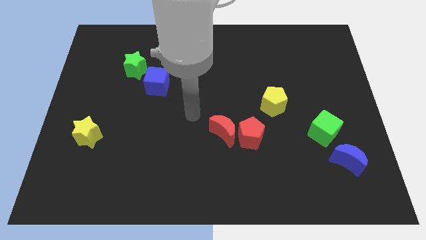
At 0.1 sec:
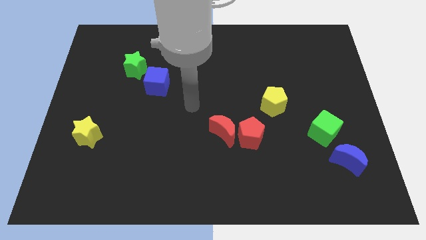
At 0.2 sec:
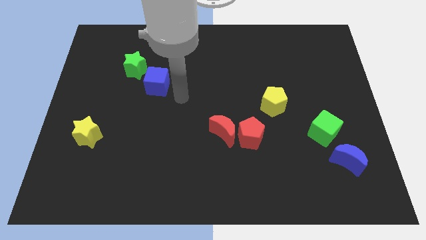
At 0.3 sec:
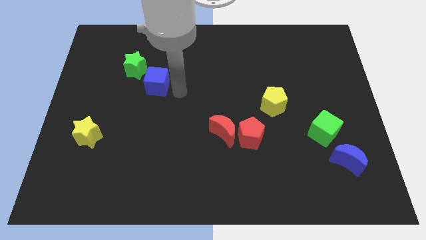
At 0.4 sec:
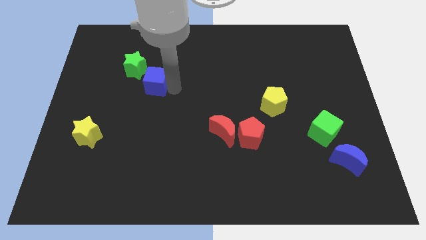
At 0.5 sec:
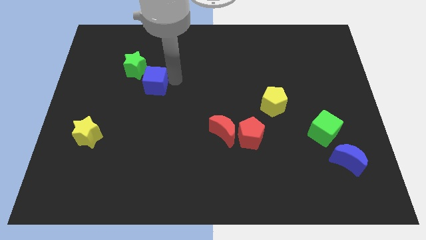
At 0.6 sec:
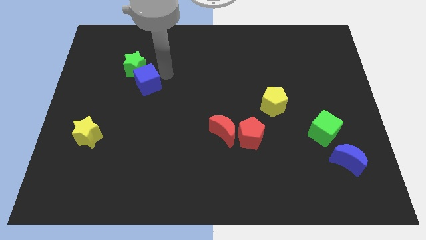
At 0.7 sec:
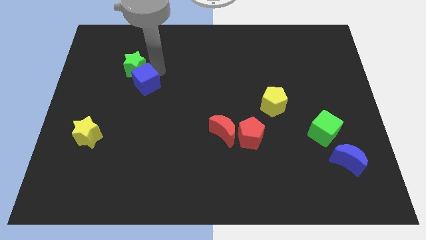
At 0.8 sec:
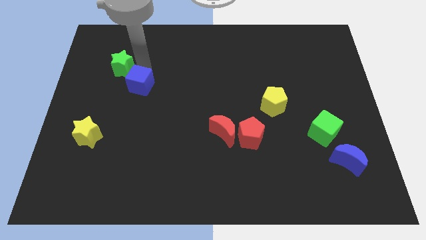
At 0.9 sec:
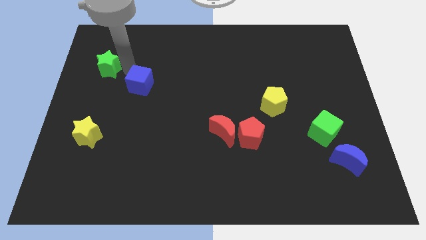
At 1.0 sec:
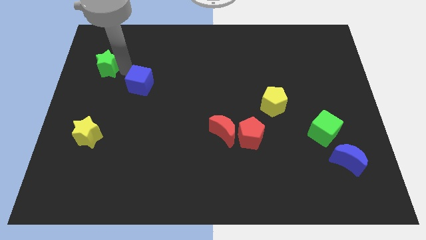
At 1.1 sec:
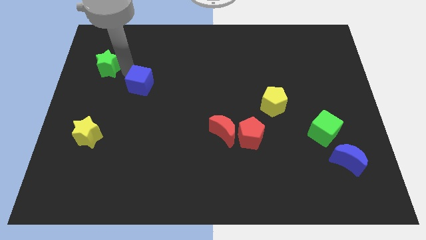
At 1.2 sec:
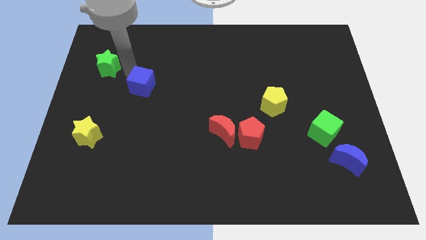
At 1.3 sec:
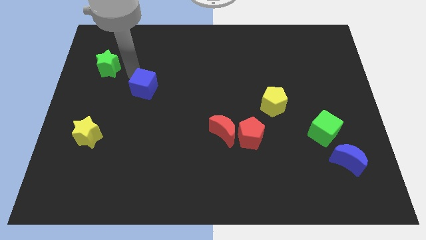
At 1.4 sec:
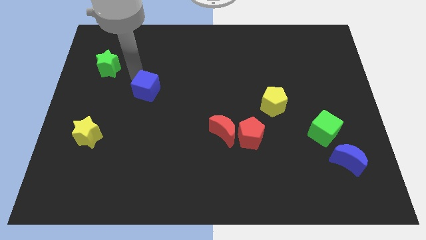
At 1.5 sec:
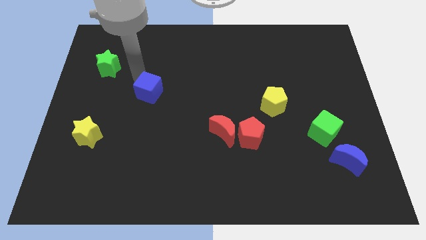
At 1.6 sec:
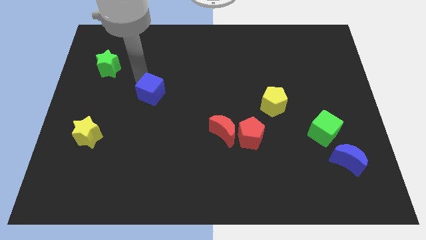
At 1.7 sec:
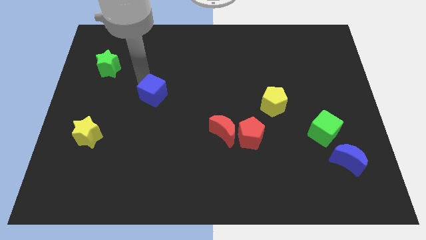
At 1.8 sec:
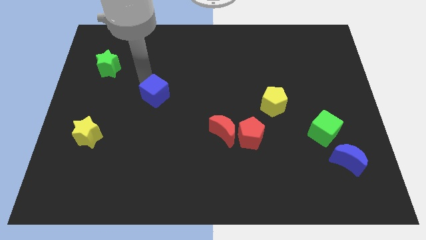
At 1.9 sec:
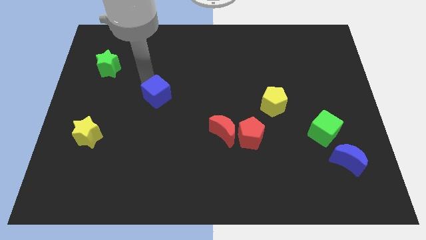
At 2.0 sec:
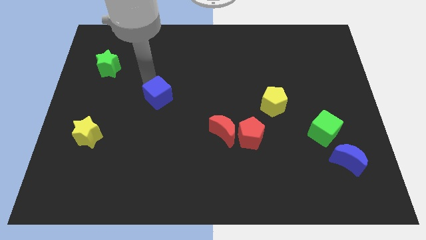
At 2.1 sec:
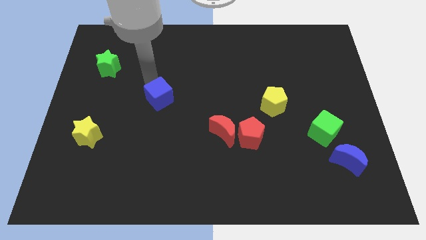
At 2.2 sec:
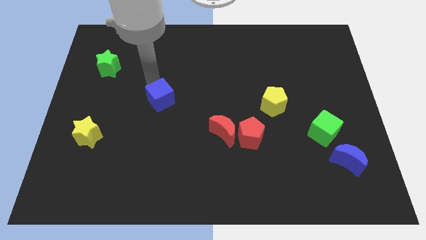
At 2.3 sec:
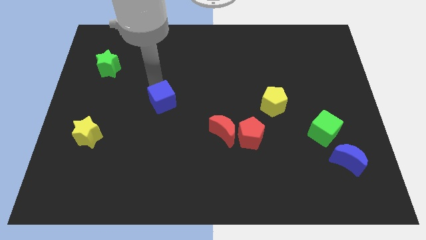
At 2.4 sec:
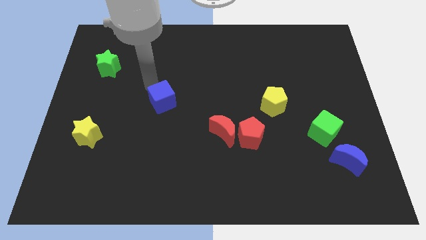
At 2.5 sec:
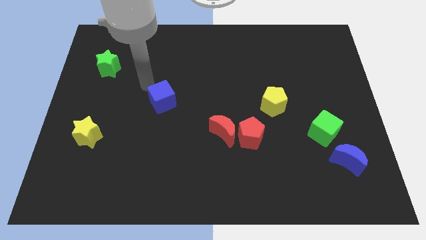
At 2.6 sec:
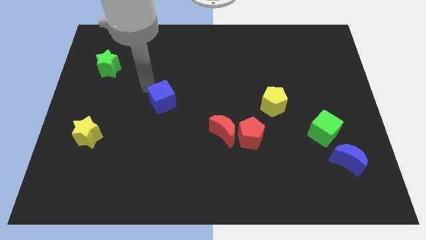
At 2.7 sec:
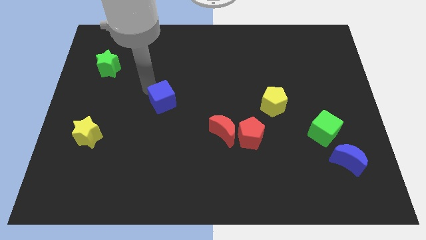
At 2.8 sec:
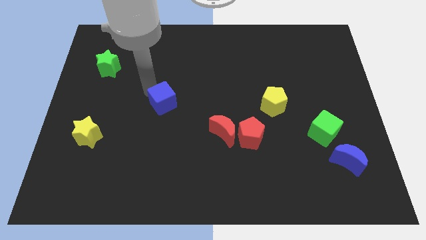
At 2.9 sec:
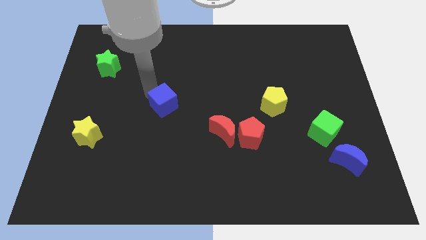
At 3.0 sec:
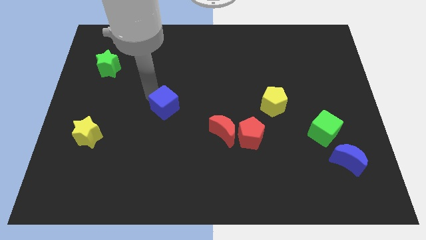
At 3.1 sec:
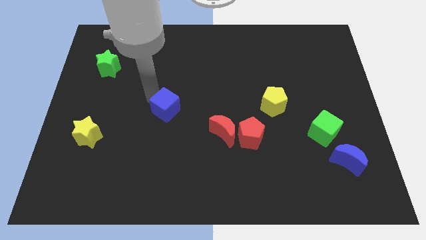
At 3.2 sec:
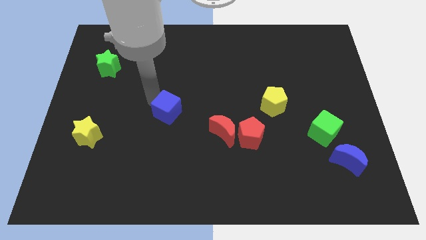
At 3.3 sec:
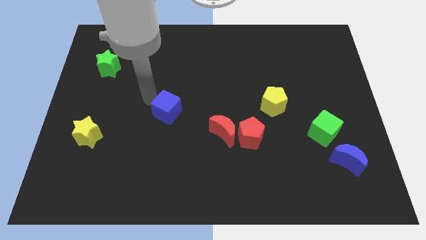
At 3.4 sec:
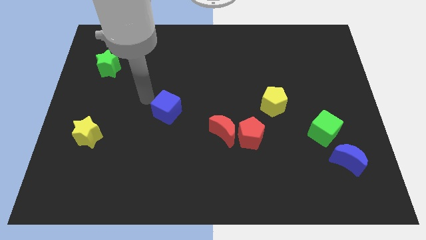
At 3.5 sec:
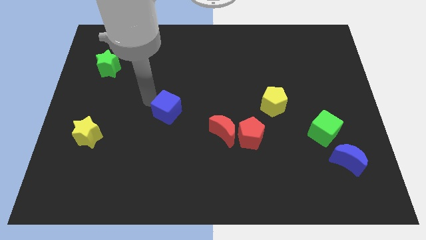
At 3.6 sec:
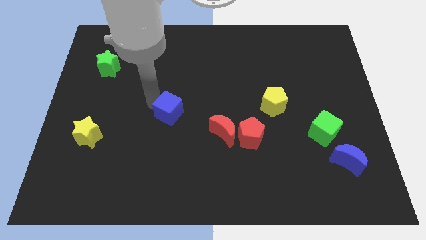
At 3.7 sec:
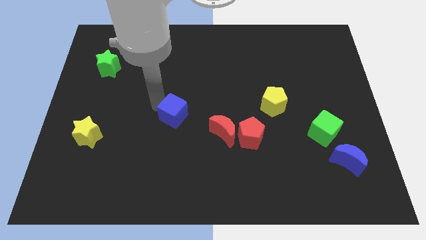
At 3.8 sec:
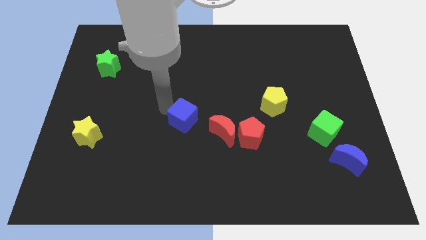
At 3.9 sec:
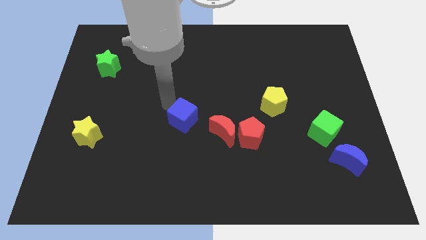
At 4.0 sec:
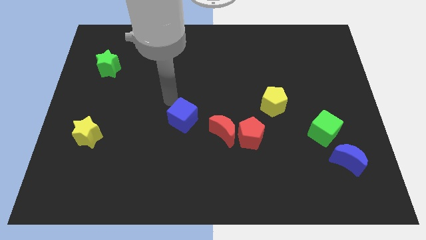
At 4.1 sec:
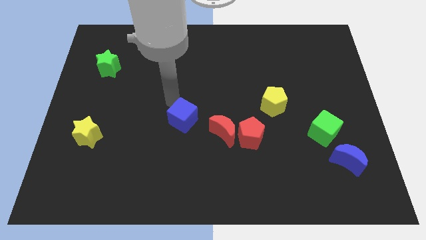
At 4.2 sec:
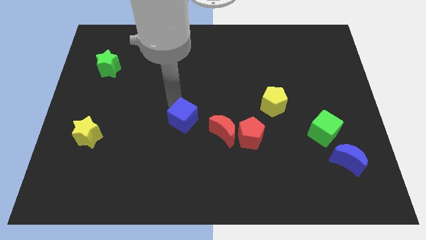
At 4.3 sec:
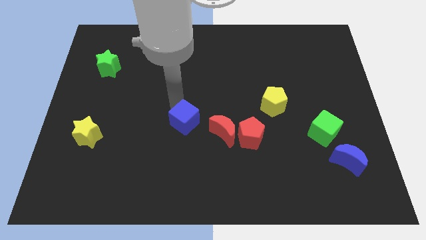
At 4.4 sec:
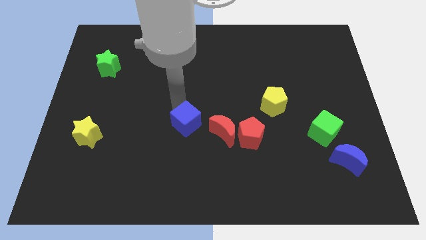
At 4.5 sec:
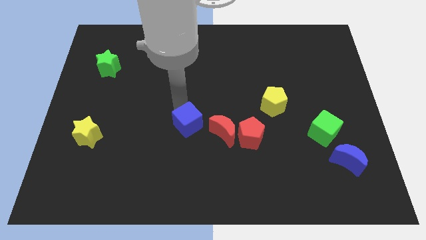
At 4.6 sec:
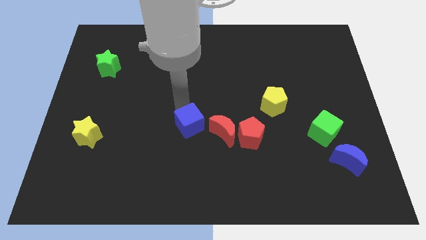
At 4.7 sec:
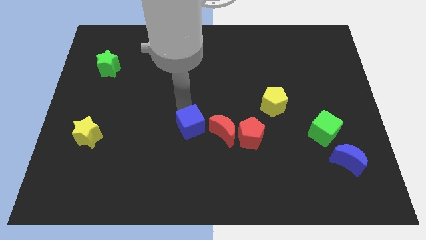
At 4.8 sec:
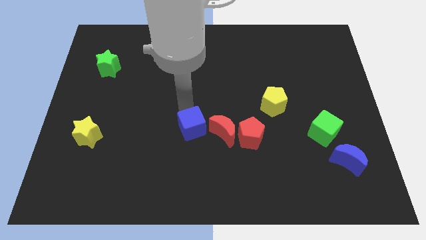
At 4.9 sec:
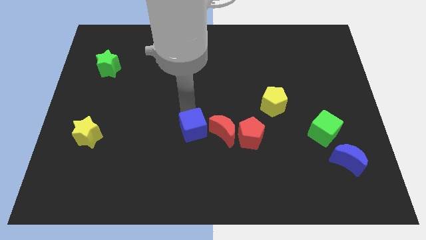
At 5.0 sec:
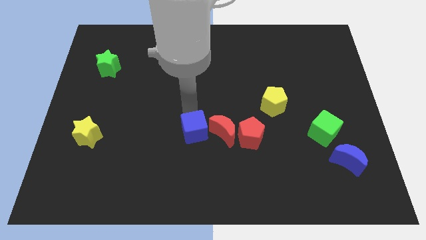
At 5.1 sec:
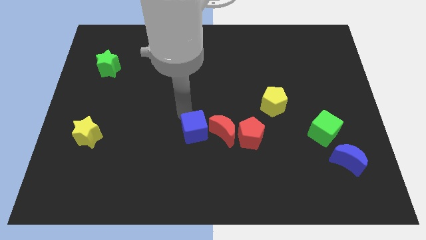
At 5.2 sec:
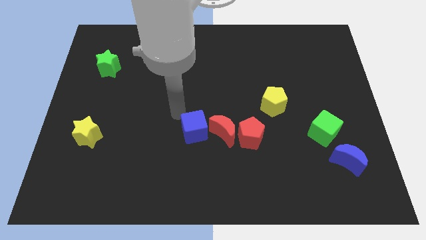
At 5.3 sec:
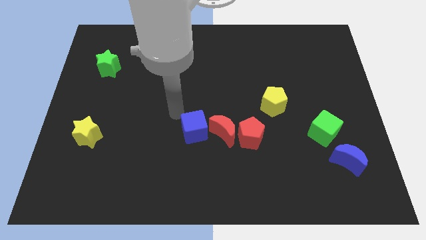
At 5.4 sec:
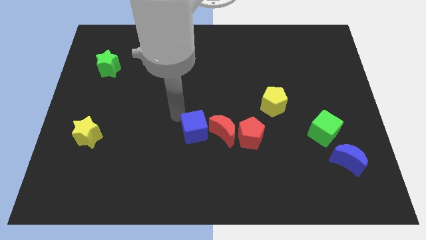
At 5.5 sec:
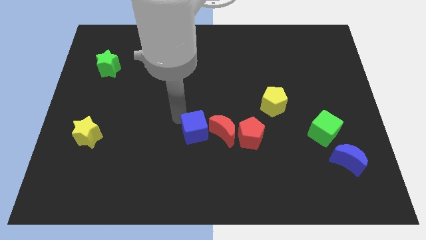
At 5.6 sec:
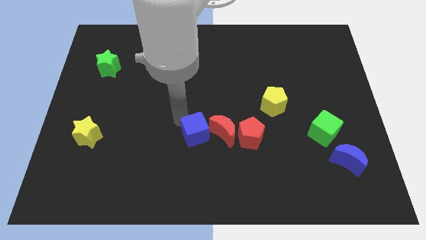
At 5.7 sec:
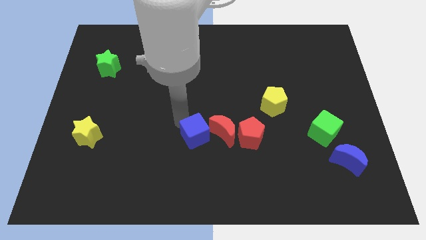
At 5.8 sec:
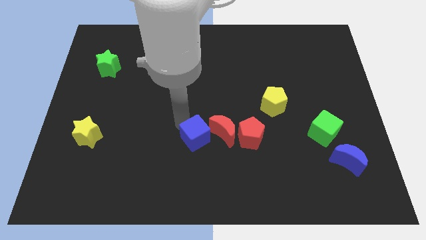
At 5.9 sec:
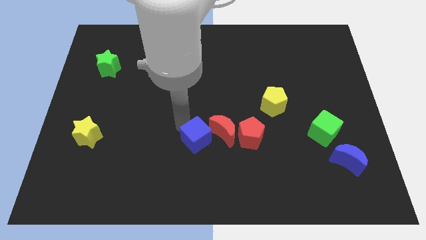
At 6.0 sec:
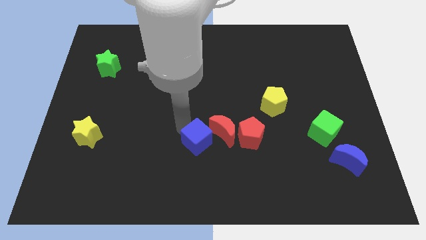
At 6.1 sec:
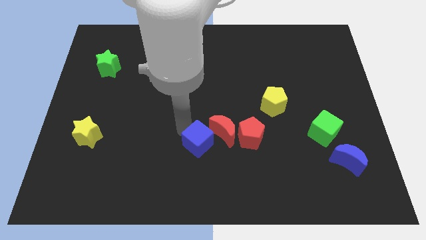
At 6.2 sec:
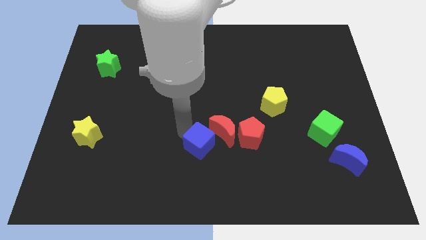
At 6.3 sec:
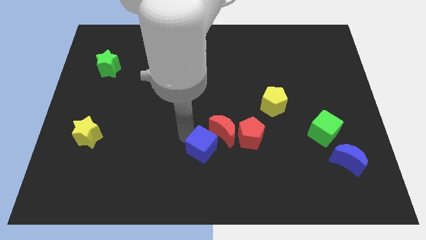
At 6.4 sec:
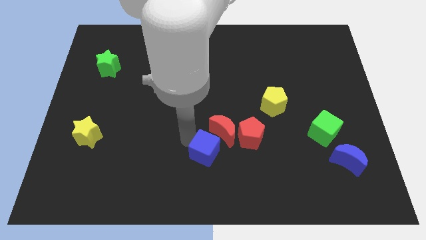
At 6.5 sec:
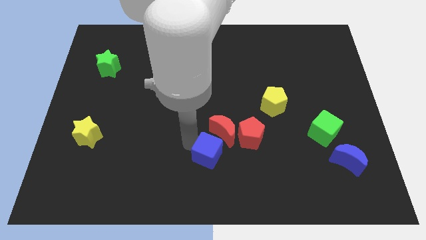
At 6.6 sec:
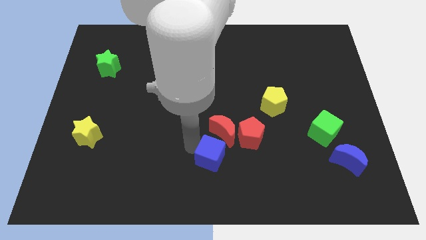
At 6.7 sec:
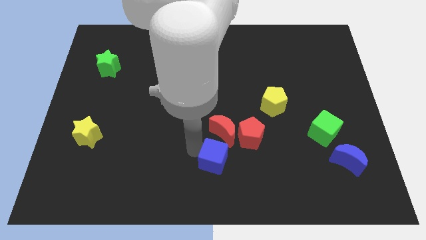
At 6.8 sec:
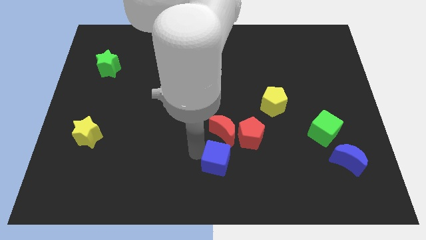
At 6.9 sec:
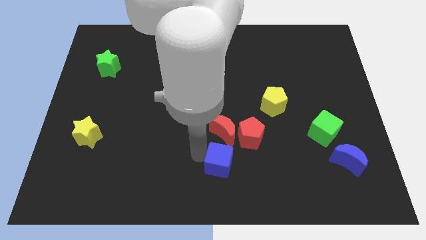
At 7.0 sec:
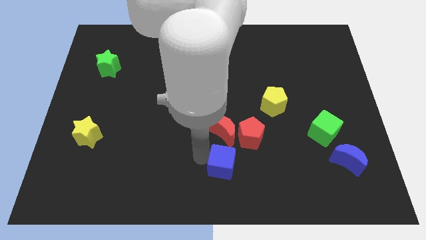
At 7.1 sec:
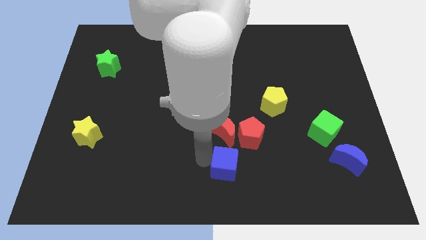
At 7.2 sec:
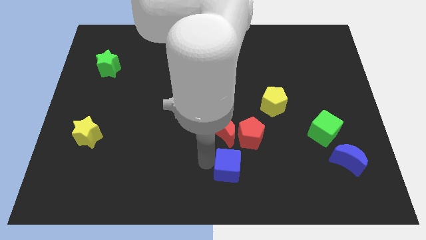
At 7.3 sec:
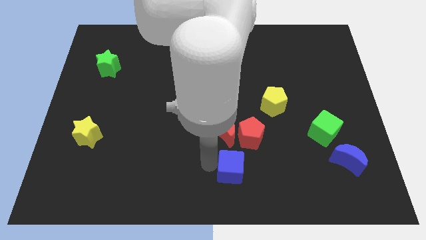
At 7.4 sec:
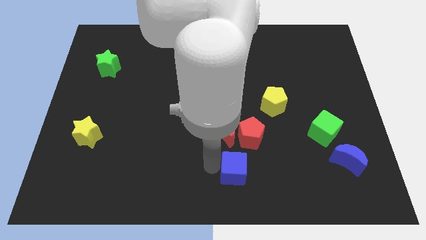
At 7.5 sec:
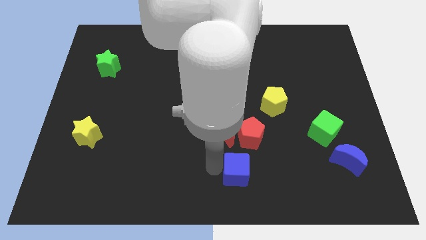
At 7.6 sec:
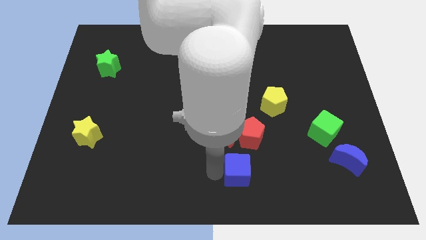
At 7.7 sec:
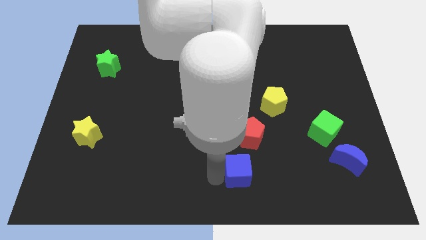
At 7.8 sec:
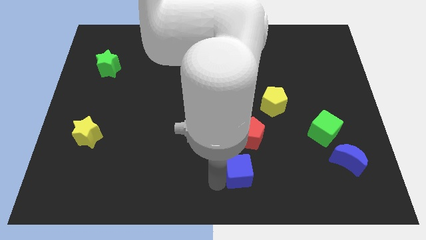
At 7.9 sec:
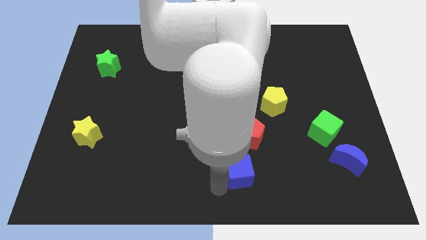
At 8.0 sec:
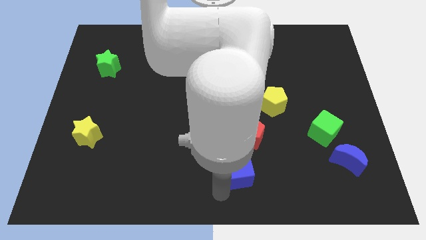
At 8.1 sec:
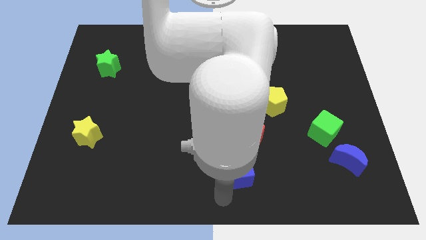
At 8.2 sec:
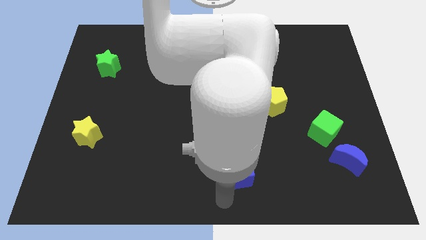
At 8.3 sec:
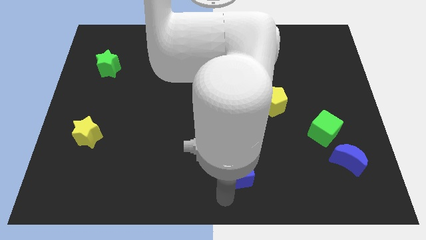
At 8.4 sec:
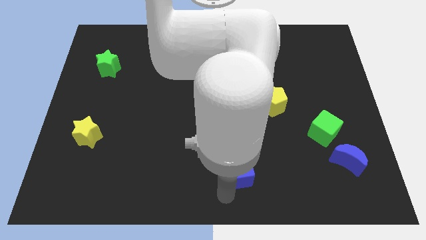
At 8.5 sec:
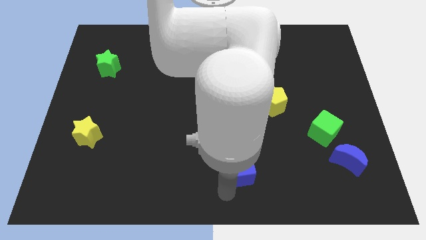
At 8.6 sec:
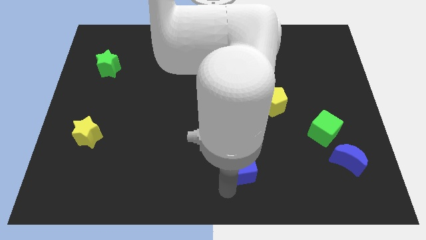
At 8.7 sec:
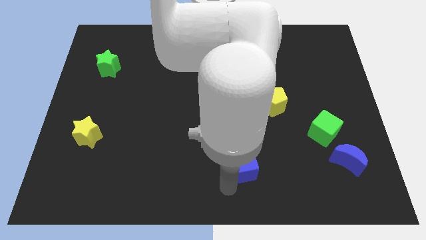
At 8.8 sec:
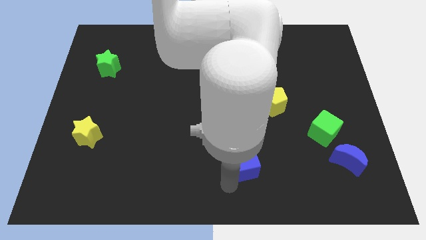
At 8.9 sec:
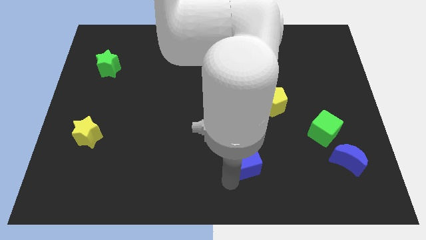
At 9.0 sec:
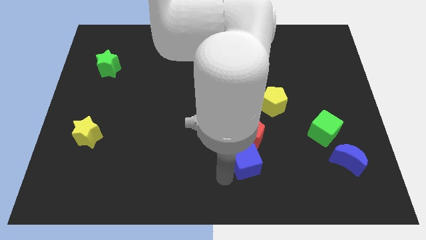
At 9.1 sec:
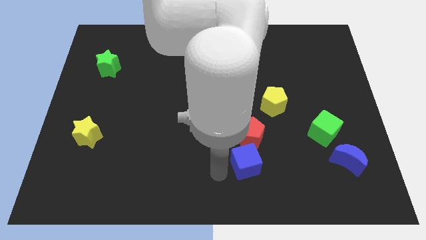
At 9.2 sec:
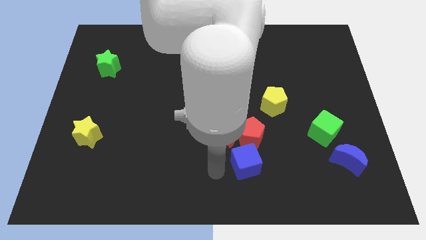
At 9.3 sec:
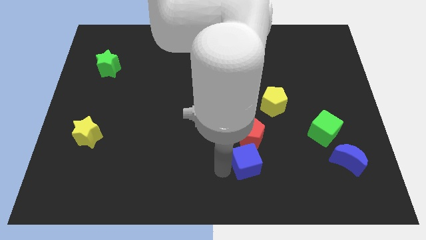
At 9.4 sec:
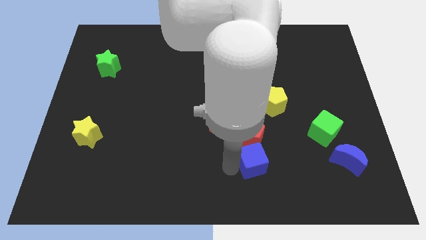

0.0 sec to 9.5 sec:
move the blue cube to the bottom right side of the red pentagon
